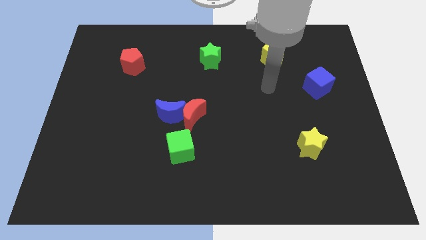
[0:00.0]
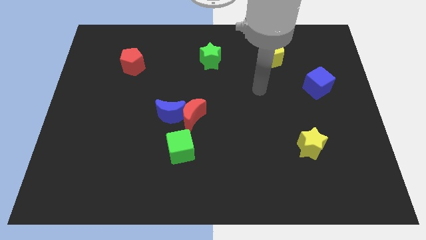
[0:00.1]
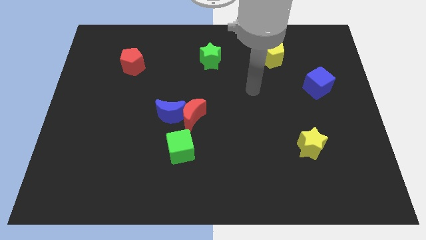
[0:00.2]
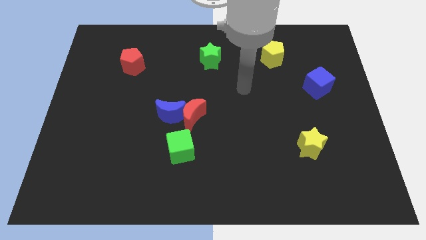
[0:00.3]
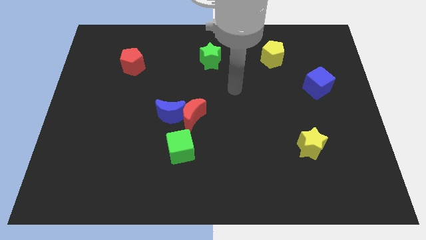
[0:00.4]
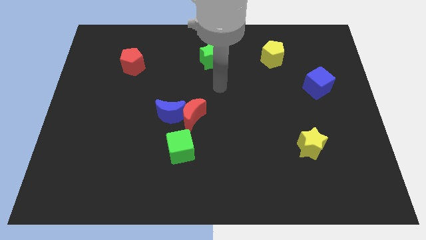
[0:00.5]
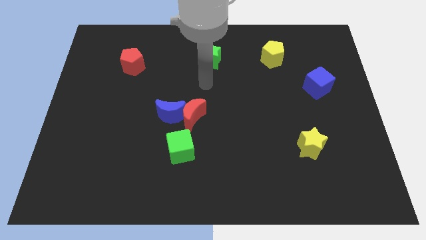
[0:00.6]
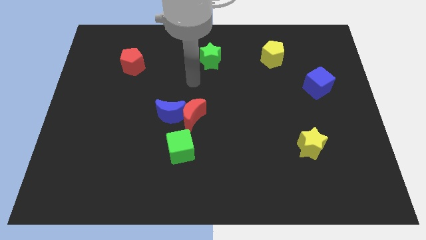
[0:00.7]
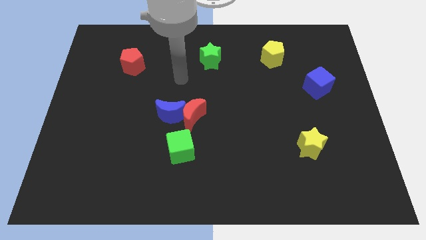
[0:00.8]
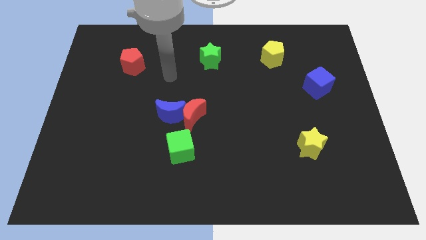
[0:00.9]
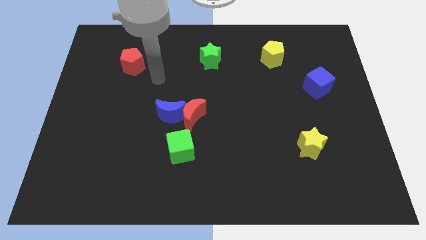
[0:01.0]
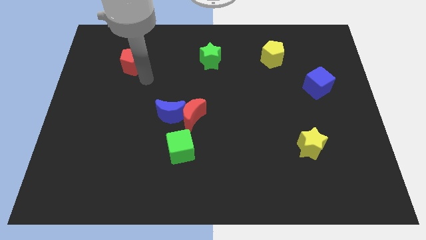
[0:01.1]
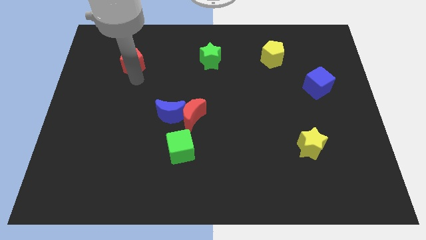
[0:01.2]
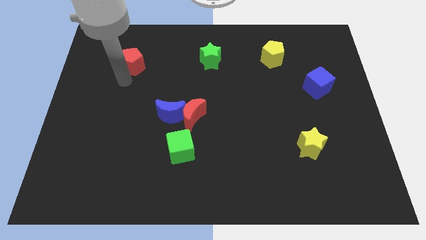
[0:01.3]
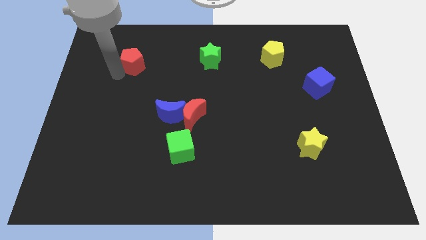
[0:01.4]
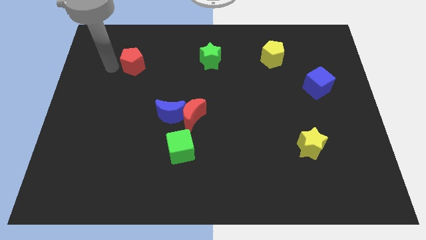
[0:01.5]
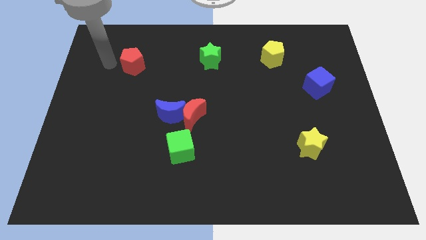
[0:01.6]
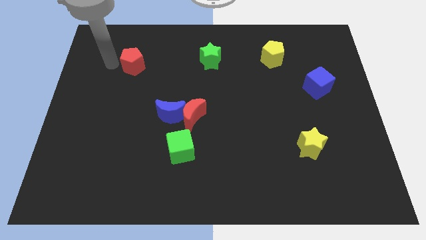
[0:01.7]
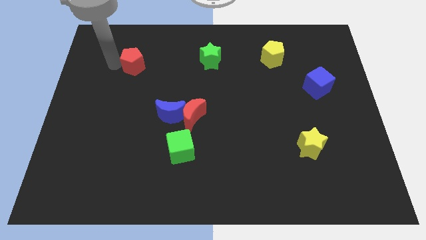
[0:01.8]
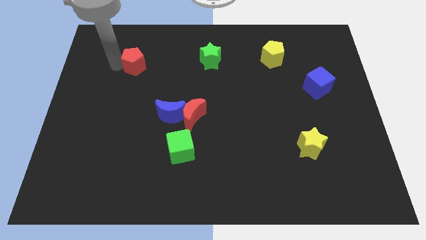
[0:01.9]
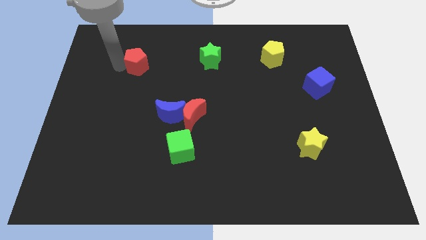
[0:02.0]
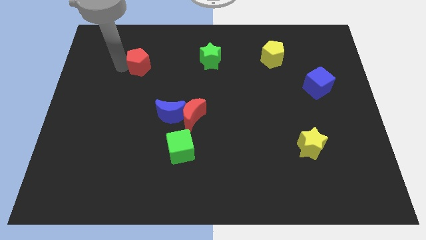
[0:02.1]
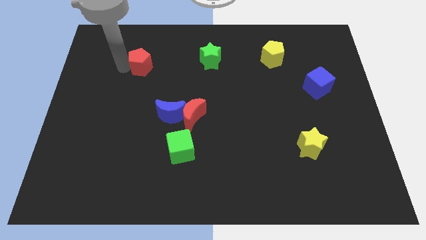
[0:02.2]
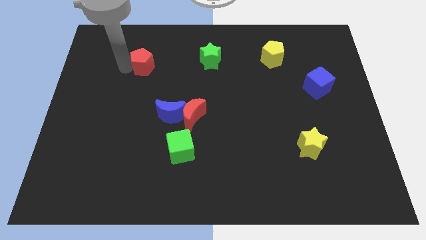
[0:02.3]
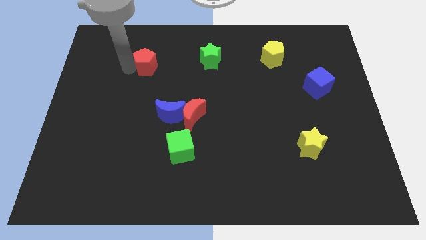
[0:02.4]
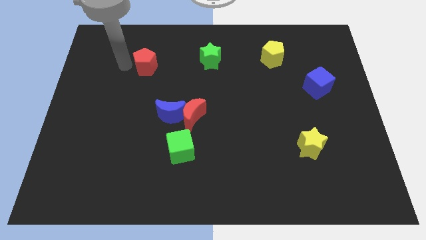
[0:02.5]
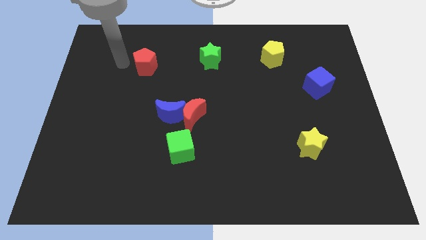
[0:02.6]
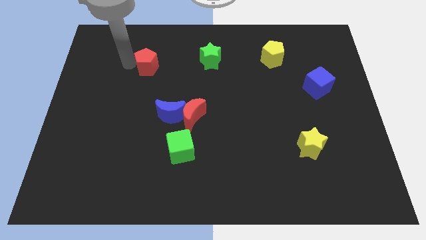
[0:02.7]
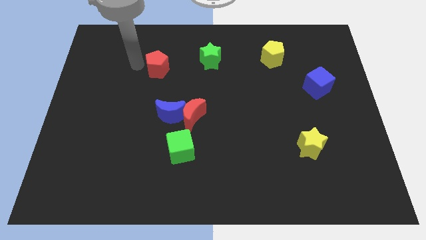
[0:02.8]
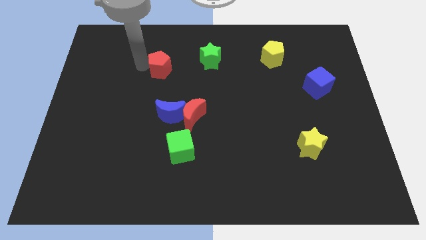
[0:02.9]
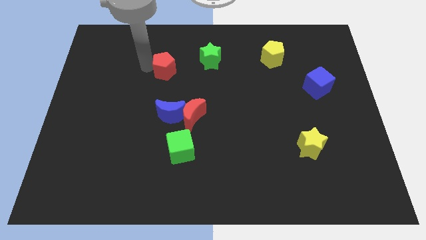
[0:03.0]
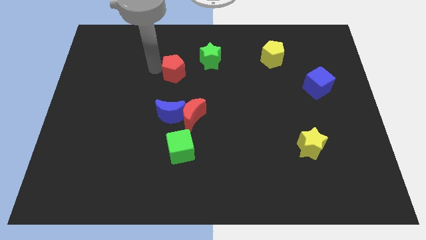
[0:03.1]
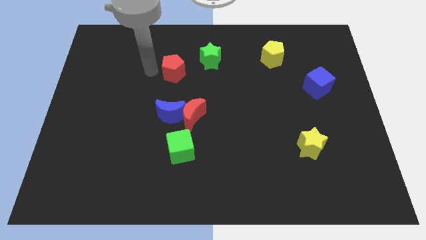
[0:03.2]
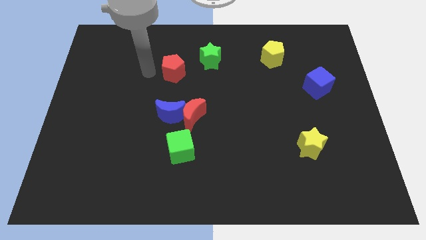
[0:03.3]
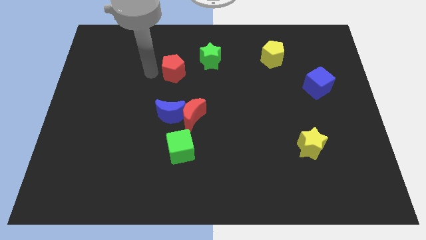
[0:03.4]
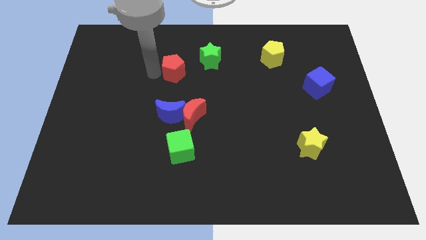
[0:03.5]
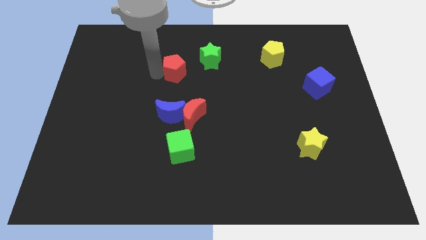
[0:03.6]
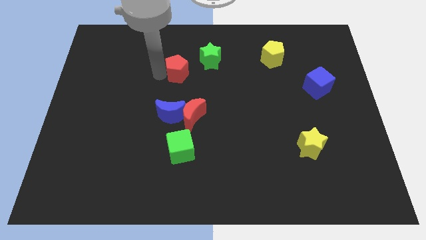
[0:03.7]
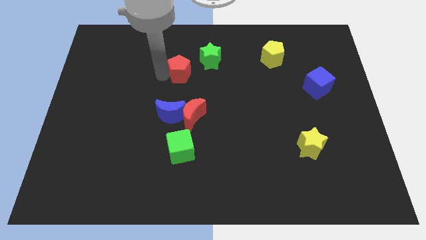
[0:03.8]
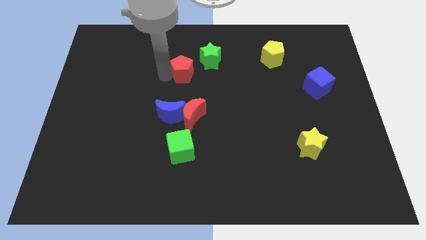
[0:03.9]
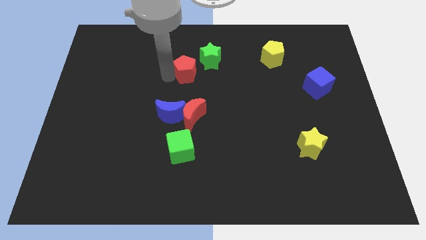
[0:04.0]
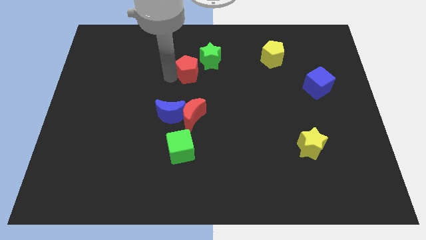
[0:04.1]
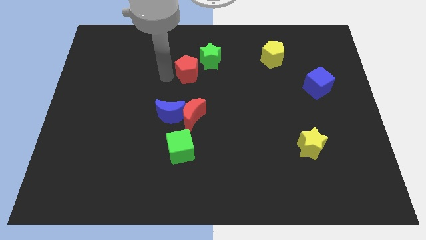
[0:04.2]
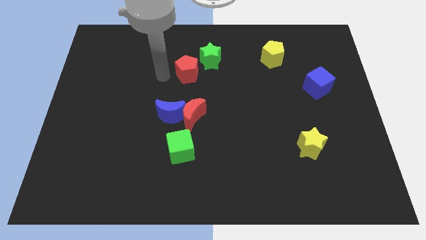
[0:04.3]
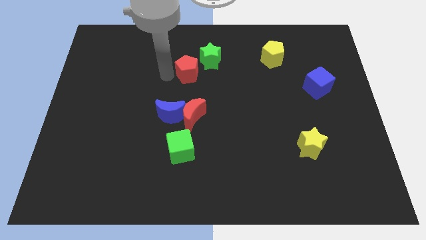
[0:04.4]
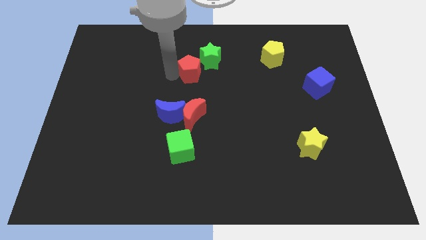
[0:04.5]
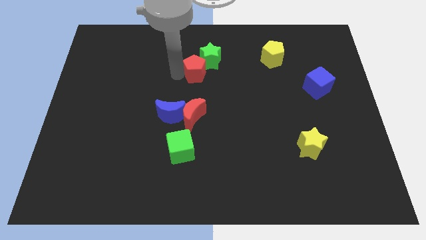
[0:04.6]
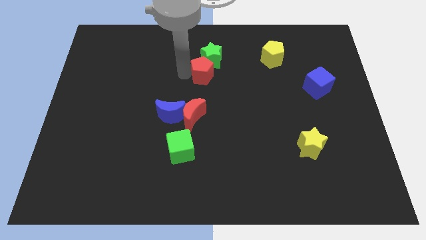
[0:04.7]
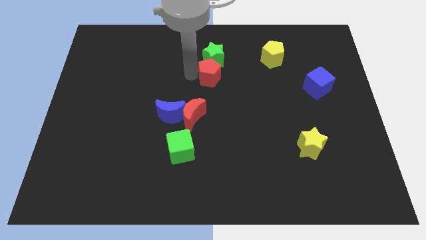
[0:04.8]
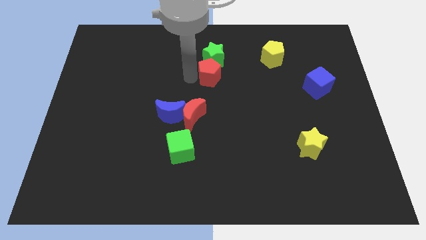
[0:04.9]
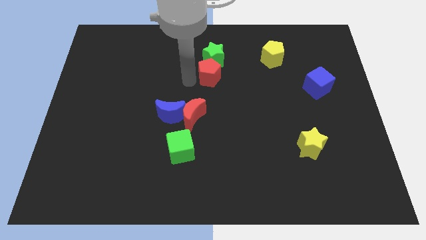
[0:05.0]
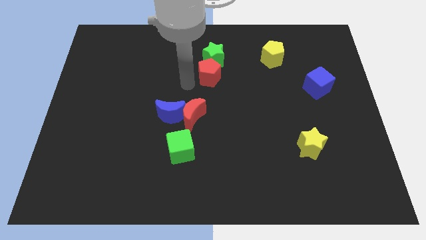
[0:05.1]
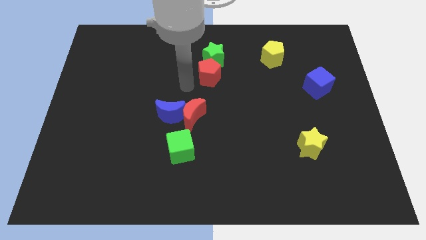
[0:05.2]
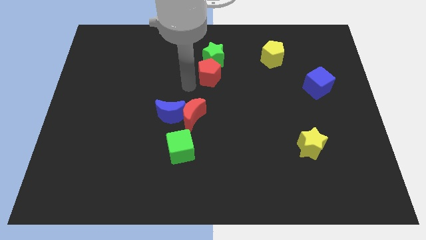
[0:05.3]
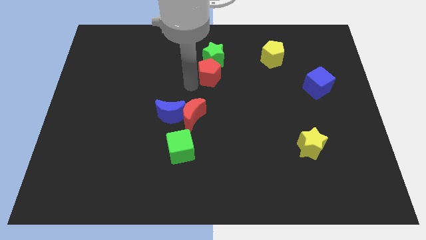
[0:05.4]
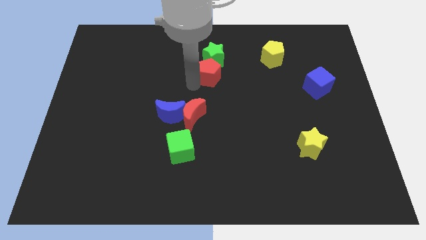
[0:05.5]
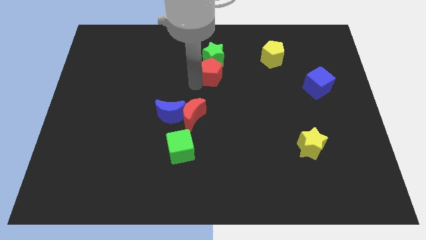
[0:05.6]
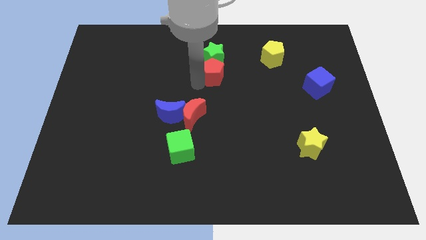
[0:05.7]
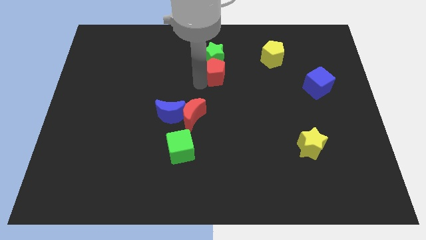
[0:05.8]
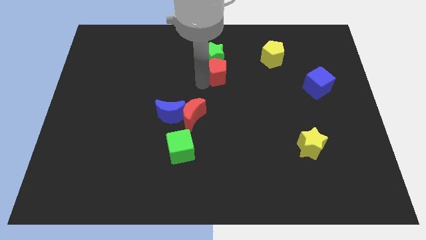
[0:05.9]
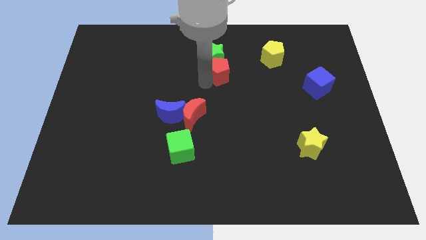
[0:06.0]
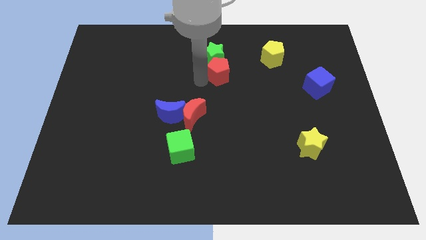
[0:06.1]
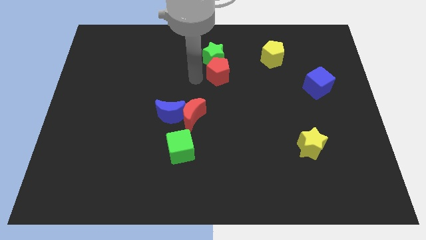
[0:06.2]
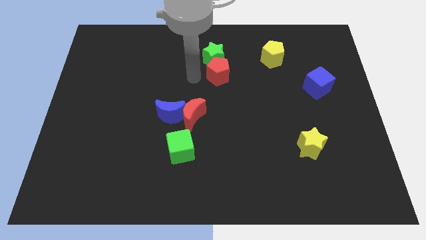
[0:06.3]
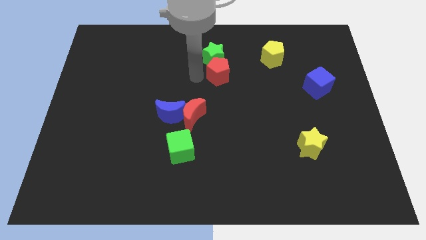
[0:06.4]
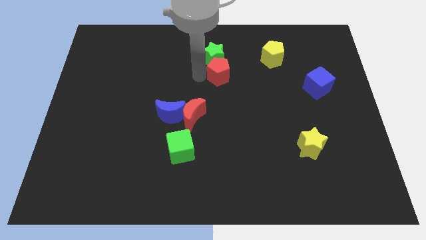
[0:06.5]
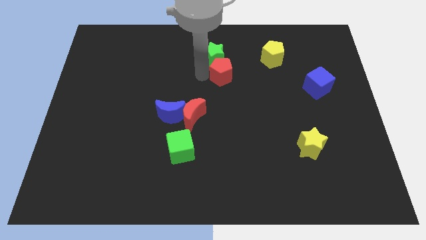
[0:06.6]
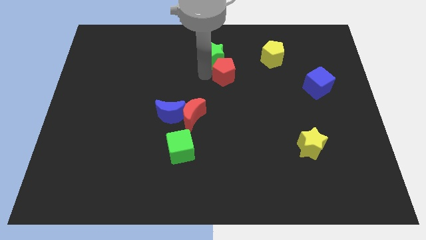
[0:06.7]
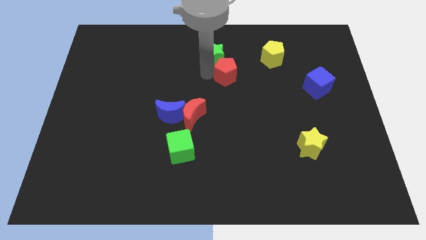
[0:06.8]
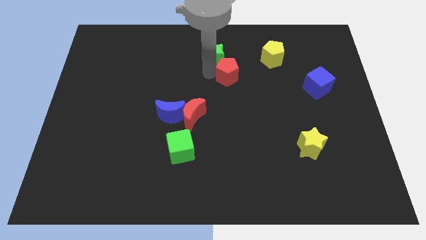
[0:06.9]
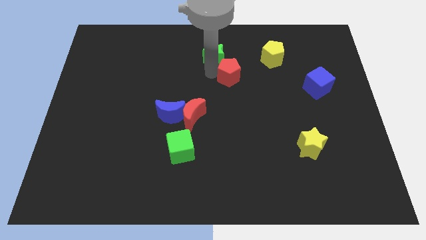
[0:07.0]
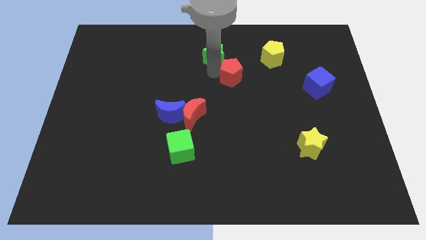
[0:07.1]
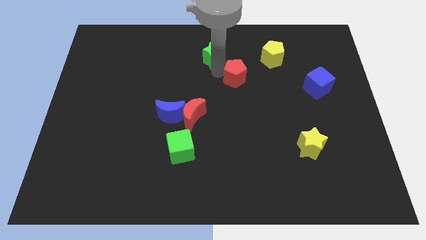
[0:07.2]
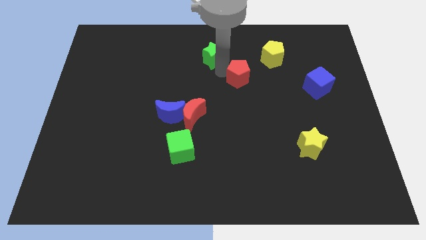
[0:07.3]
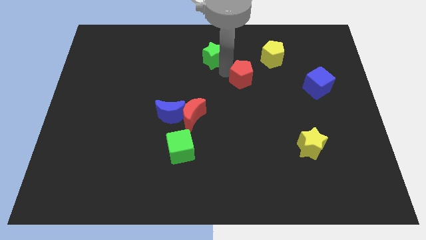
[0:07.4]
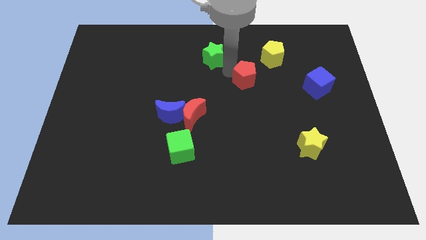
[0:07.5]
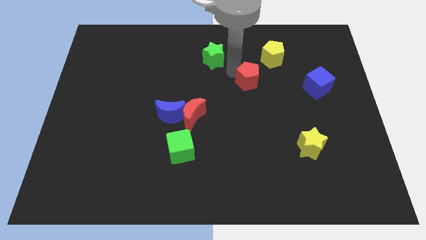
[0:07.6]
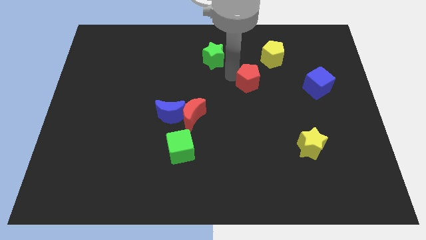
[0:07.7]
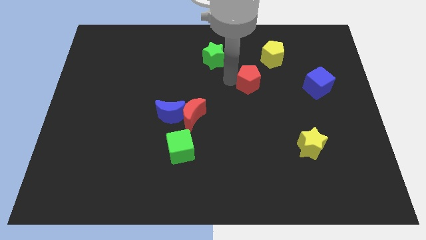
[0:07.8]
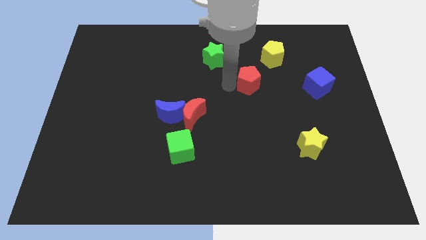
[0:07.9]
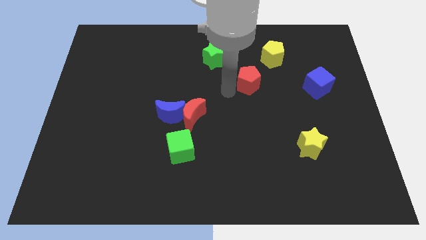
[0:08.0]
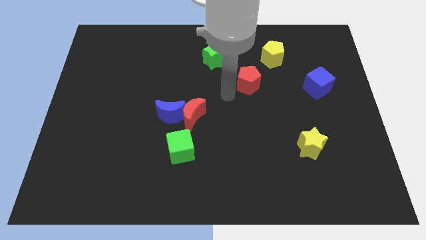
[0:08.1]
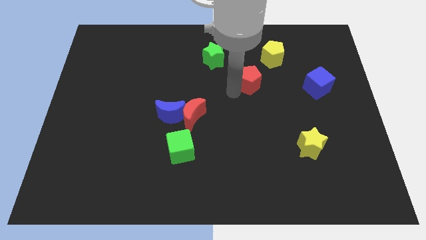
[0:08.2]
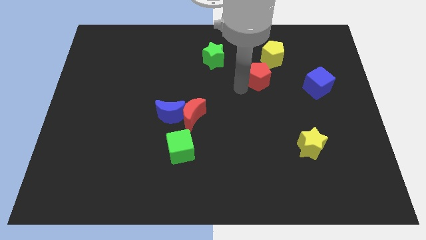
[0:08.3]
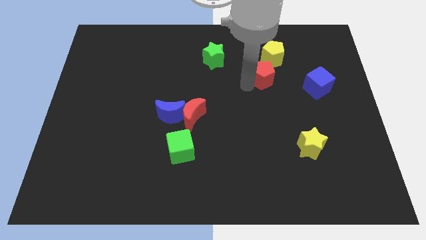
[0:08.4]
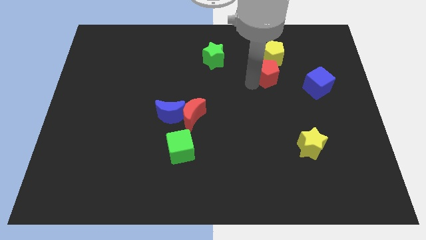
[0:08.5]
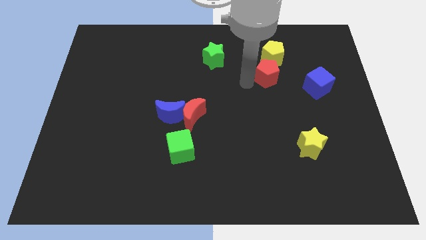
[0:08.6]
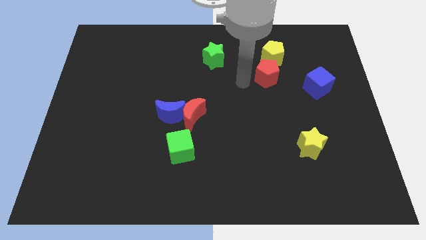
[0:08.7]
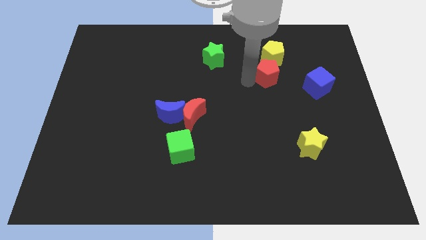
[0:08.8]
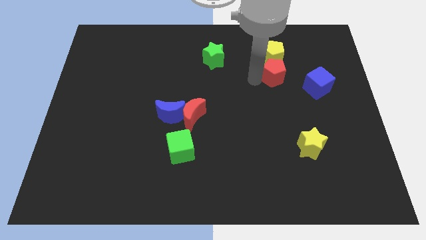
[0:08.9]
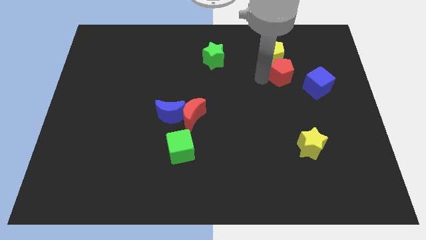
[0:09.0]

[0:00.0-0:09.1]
push the red pentagon to the top left side of the blue cube
